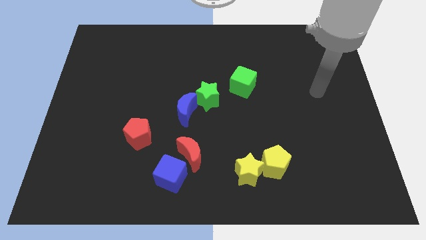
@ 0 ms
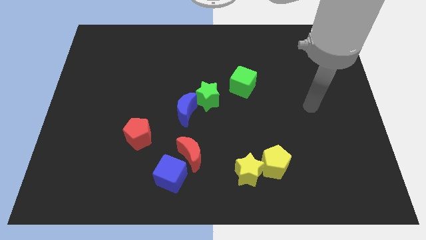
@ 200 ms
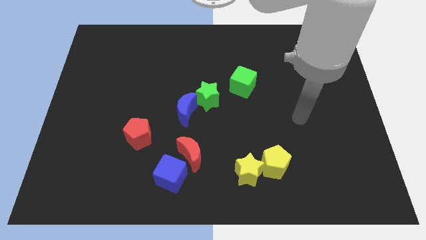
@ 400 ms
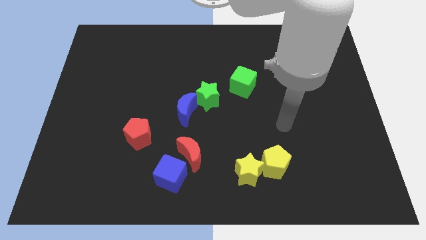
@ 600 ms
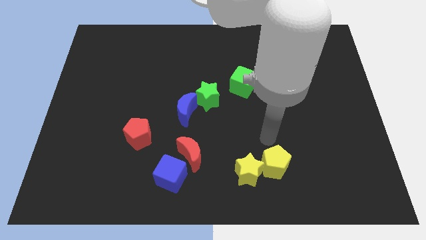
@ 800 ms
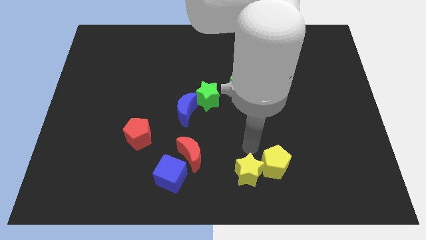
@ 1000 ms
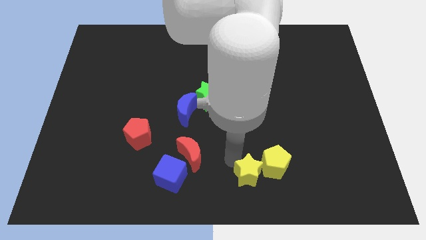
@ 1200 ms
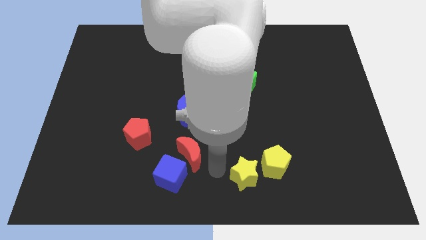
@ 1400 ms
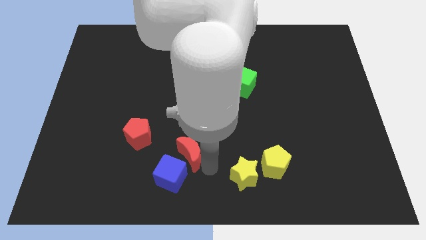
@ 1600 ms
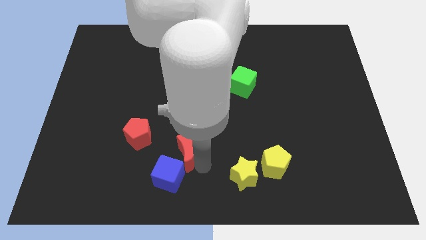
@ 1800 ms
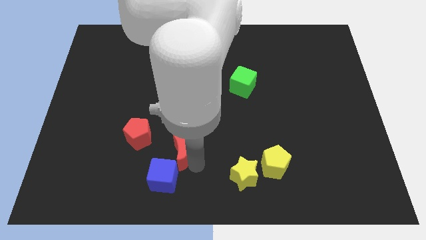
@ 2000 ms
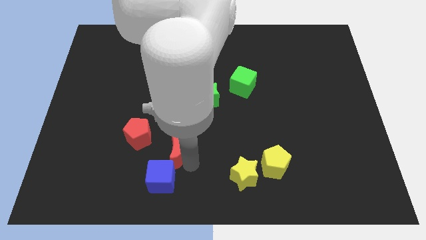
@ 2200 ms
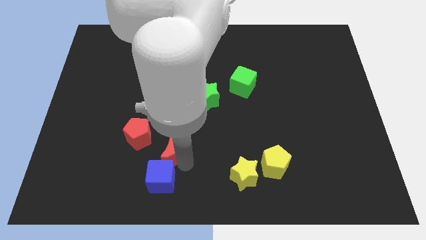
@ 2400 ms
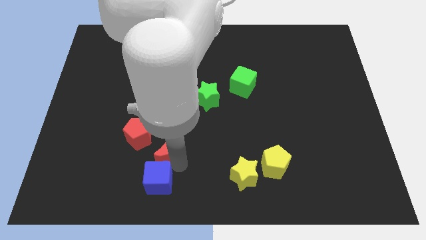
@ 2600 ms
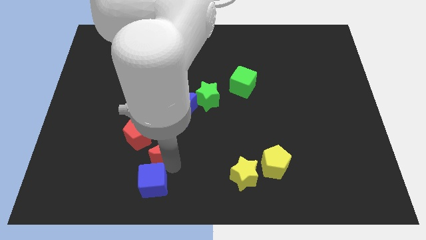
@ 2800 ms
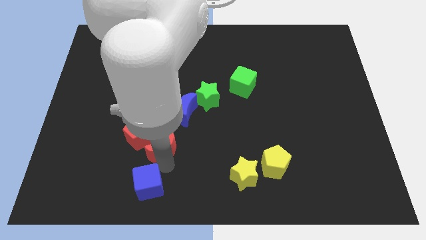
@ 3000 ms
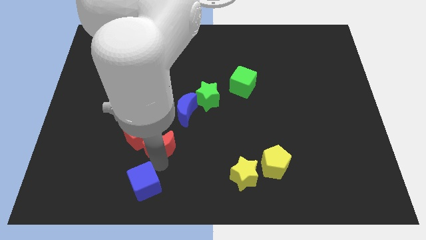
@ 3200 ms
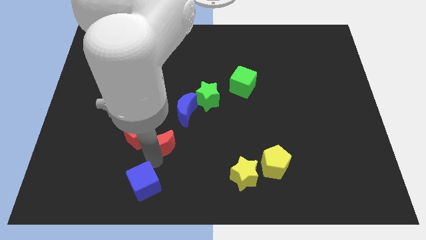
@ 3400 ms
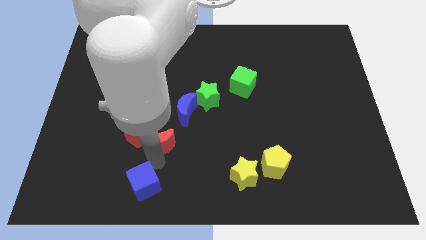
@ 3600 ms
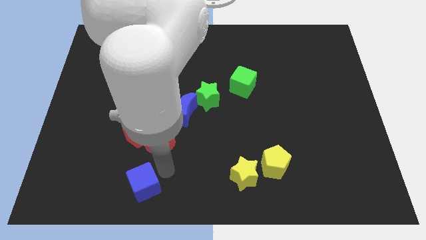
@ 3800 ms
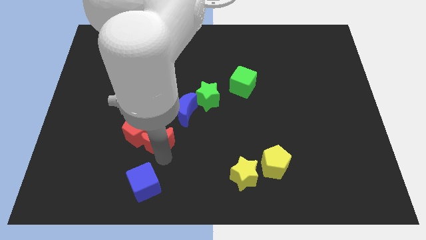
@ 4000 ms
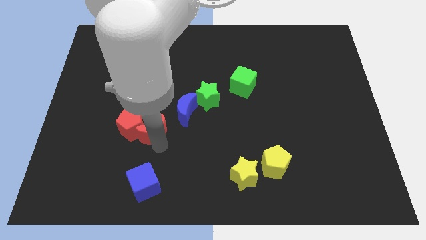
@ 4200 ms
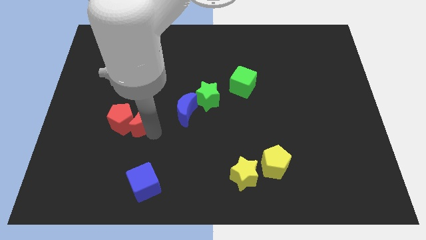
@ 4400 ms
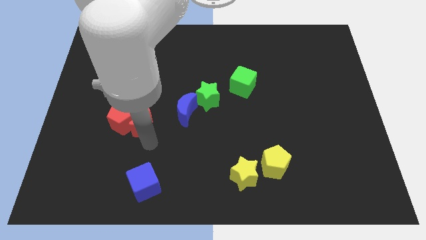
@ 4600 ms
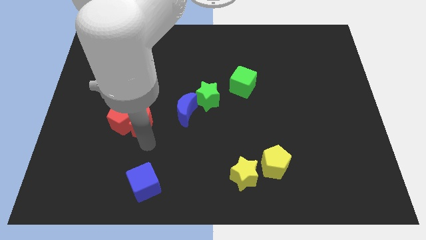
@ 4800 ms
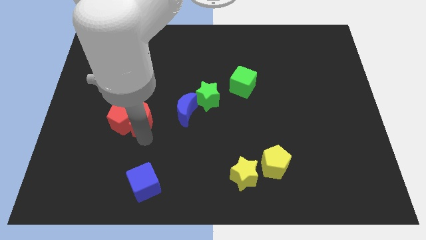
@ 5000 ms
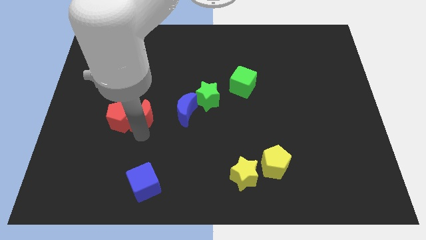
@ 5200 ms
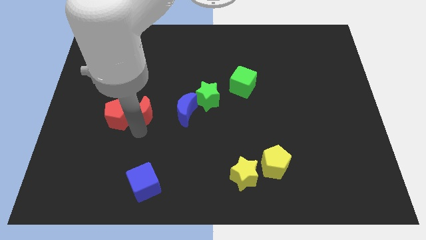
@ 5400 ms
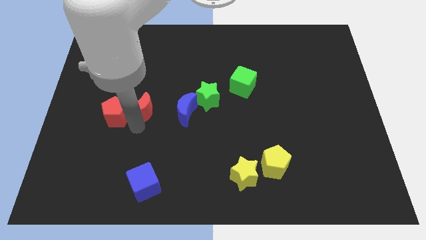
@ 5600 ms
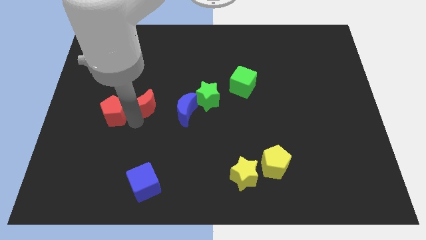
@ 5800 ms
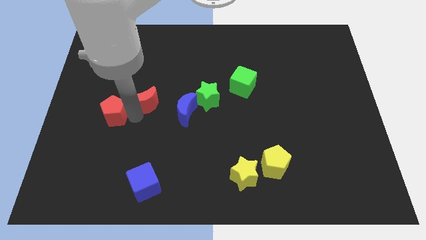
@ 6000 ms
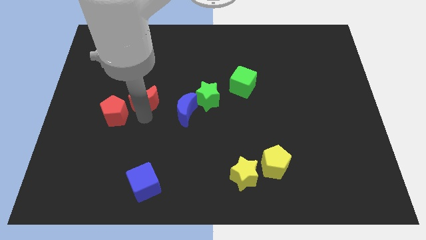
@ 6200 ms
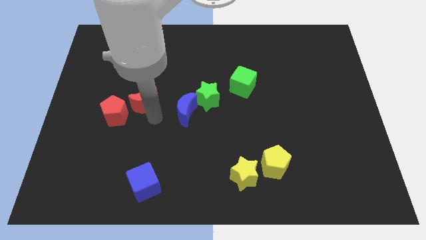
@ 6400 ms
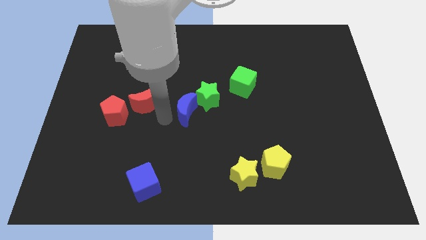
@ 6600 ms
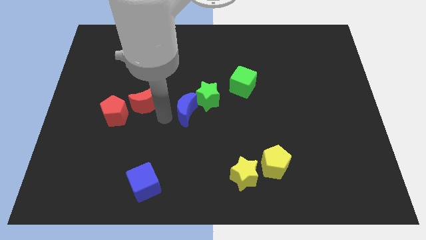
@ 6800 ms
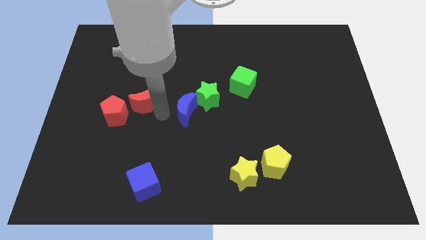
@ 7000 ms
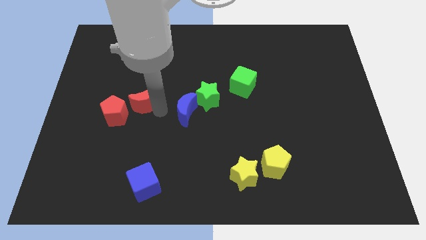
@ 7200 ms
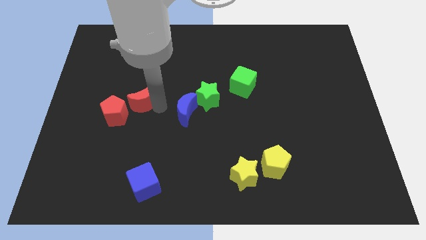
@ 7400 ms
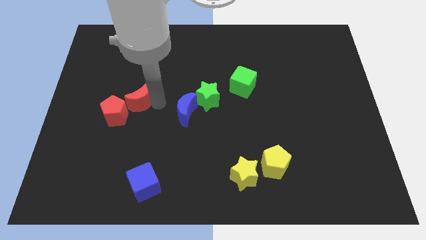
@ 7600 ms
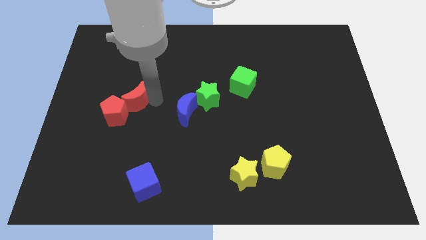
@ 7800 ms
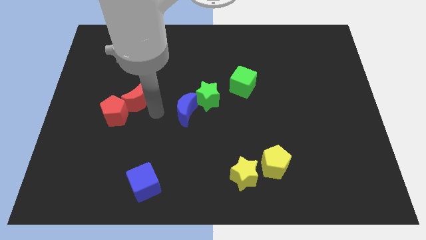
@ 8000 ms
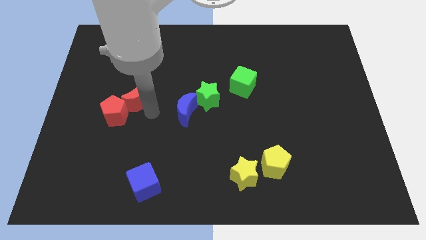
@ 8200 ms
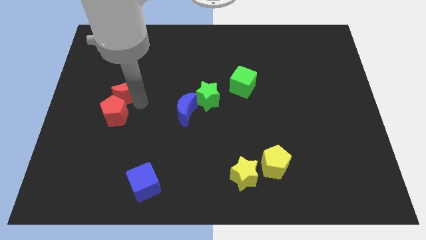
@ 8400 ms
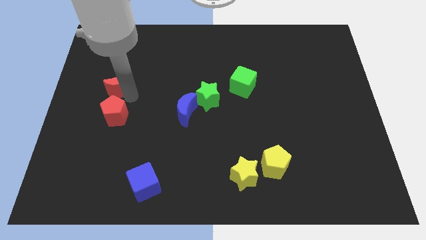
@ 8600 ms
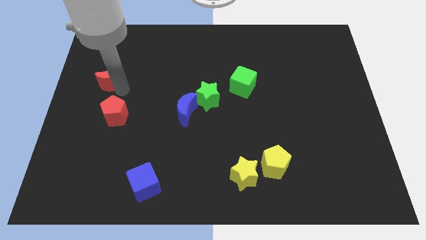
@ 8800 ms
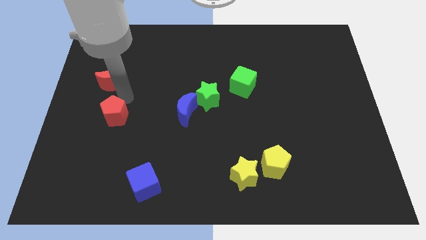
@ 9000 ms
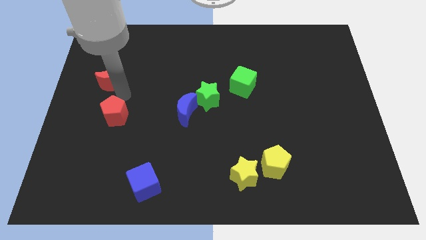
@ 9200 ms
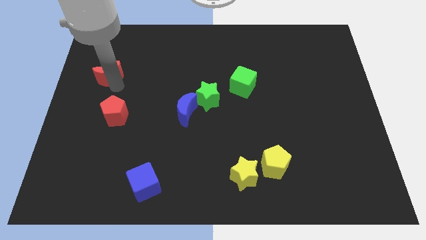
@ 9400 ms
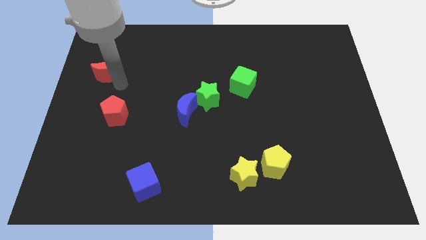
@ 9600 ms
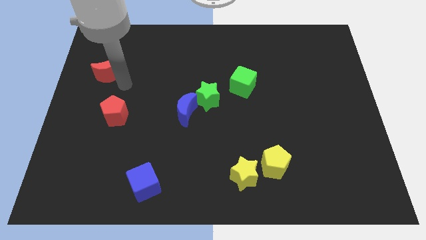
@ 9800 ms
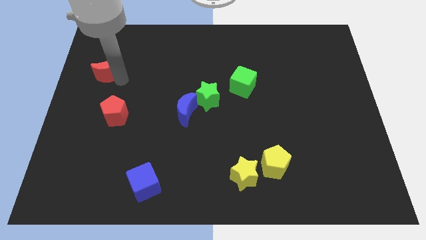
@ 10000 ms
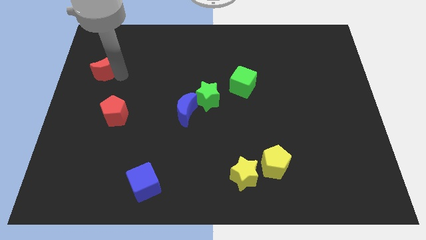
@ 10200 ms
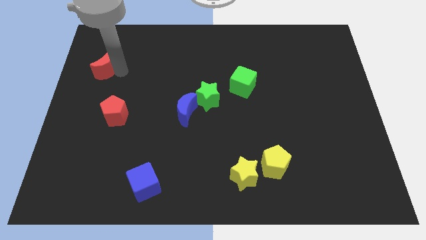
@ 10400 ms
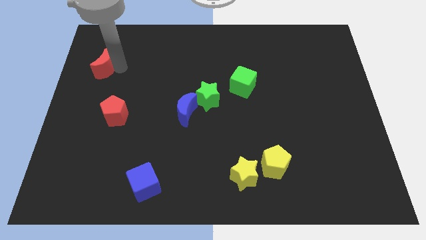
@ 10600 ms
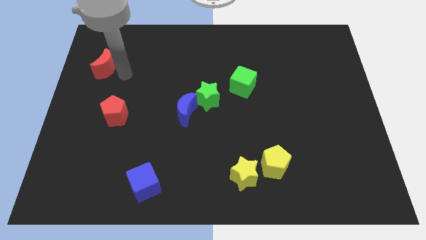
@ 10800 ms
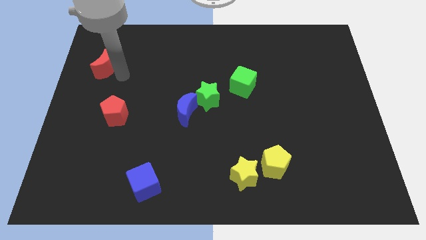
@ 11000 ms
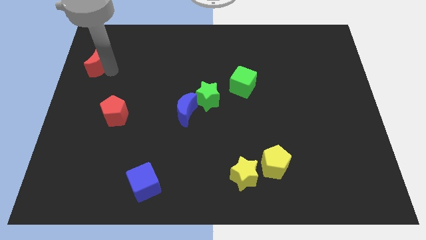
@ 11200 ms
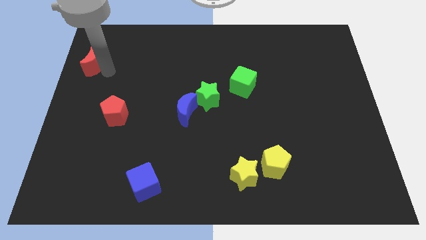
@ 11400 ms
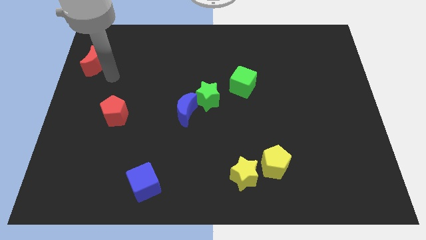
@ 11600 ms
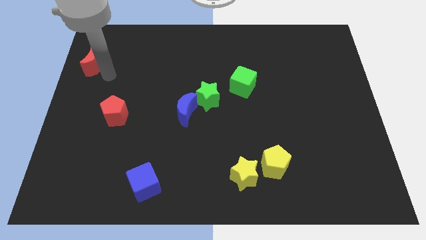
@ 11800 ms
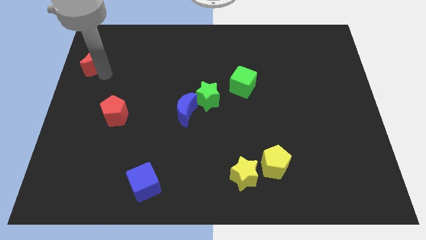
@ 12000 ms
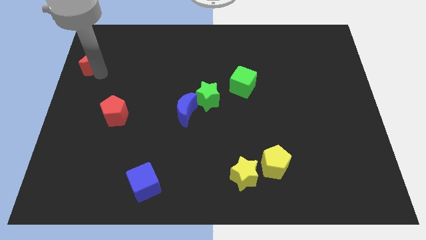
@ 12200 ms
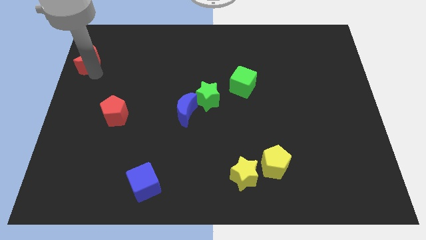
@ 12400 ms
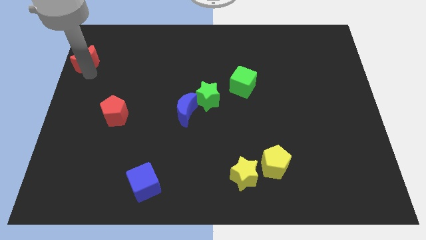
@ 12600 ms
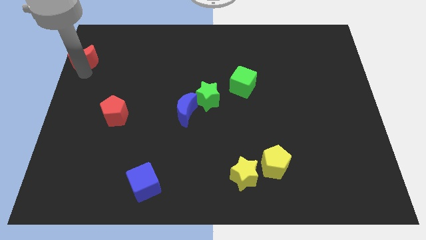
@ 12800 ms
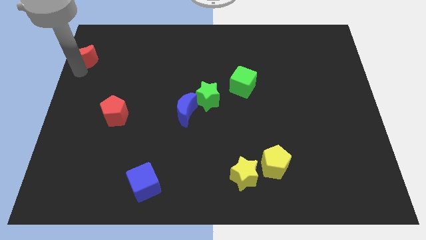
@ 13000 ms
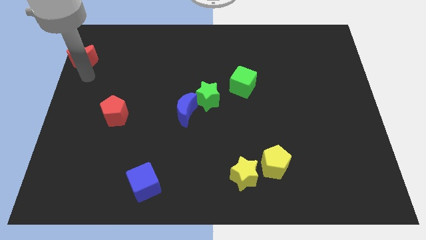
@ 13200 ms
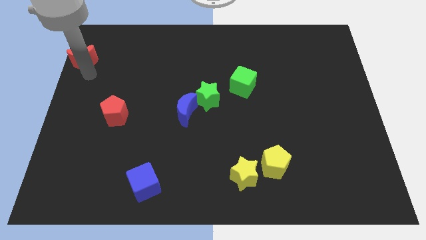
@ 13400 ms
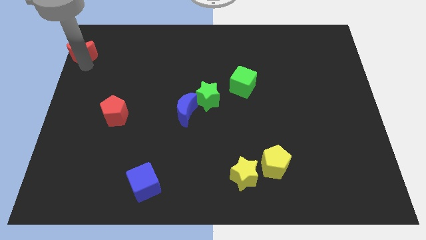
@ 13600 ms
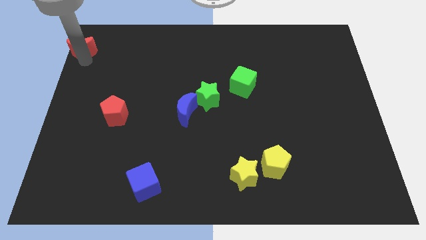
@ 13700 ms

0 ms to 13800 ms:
move the red moon to the top left
